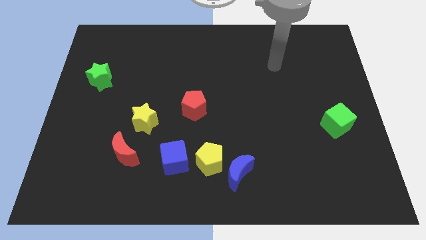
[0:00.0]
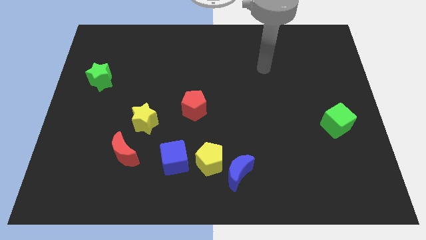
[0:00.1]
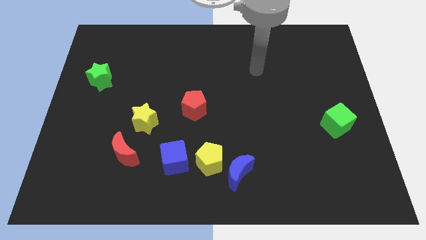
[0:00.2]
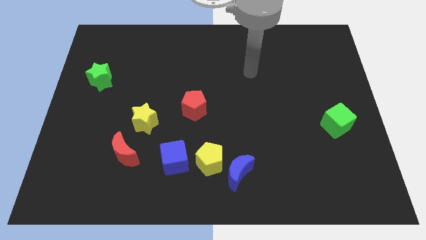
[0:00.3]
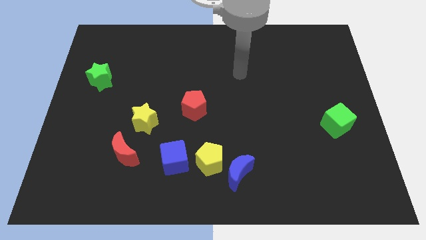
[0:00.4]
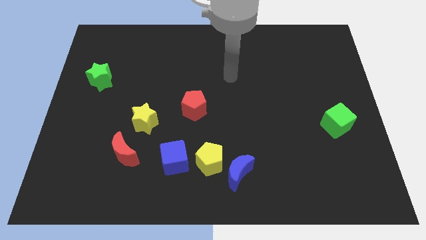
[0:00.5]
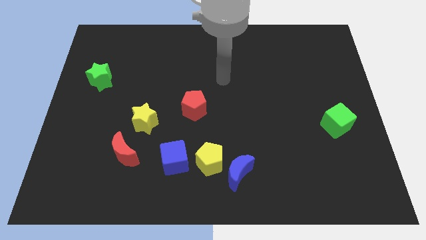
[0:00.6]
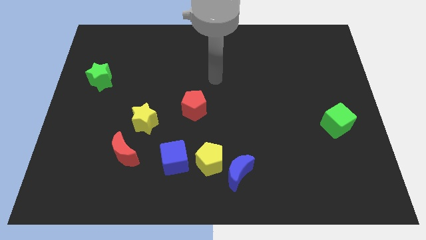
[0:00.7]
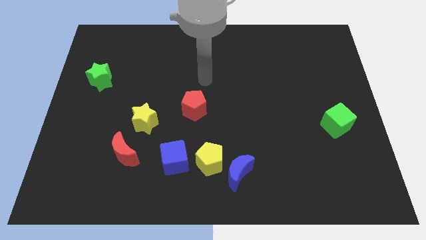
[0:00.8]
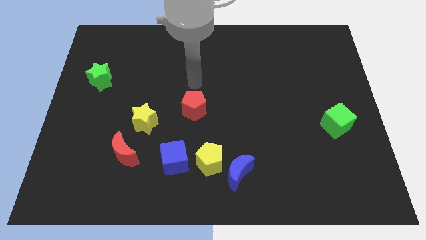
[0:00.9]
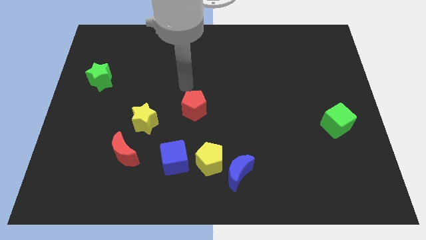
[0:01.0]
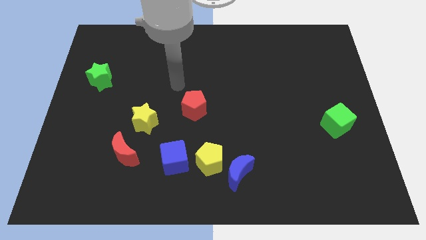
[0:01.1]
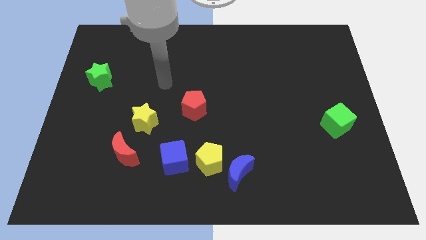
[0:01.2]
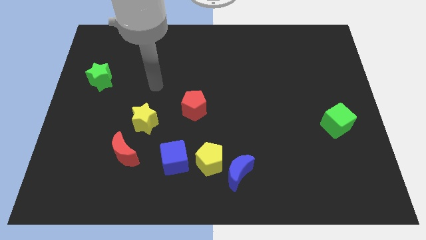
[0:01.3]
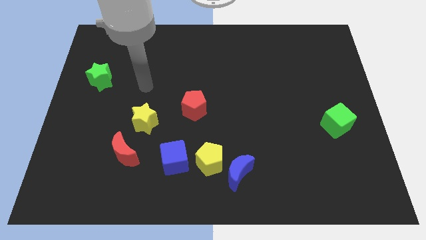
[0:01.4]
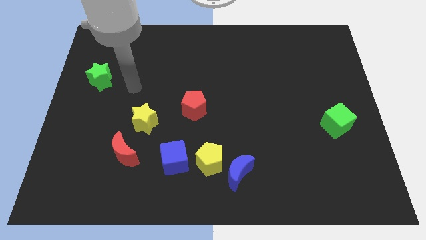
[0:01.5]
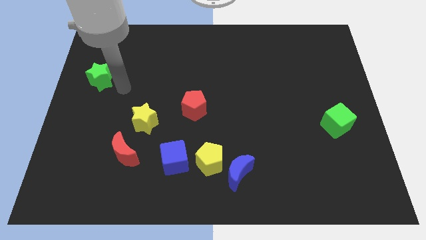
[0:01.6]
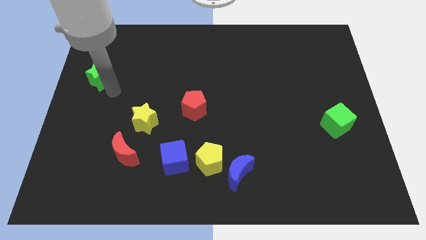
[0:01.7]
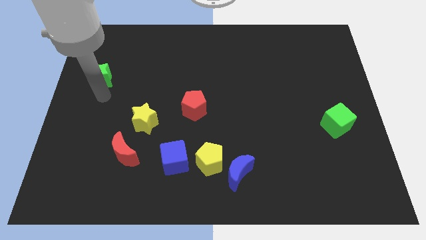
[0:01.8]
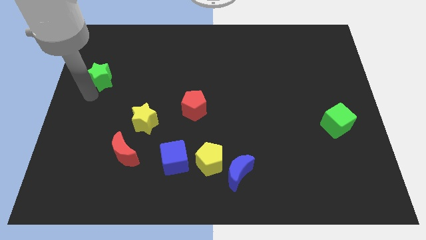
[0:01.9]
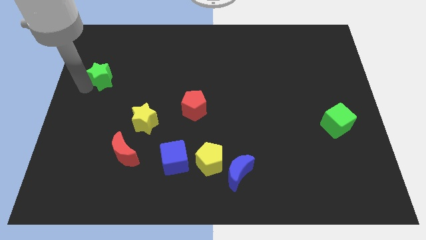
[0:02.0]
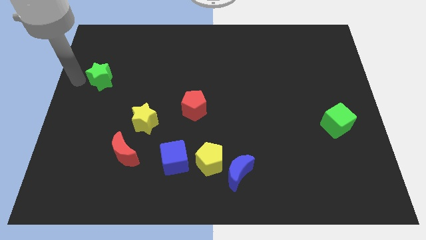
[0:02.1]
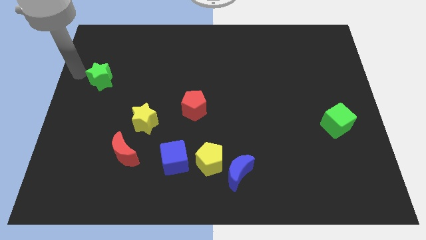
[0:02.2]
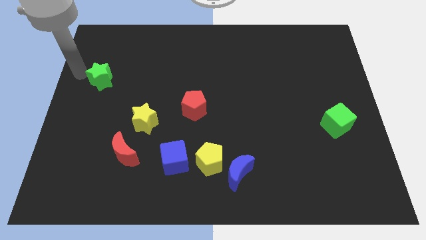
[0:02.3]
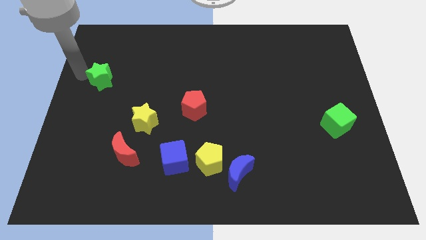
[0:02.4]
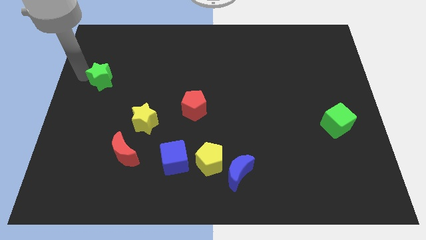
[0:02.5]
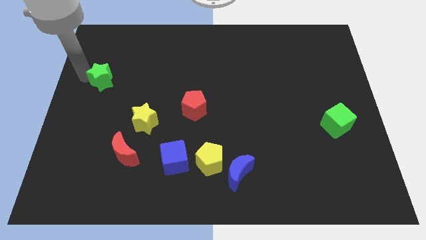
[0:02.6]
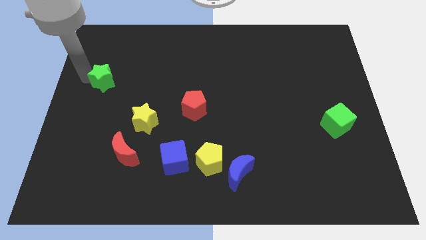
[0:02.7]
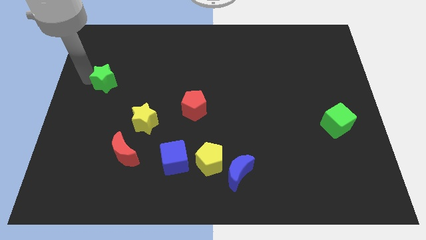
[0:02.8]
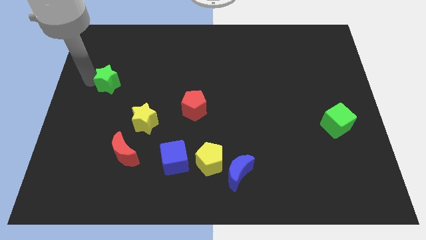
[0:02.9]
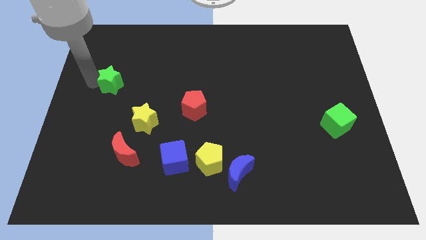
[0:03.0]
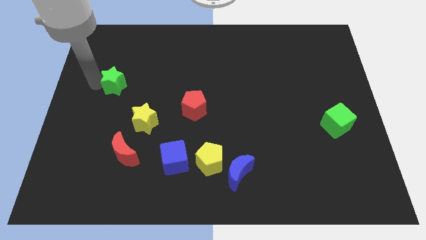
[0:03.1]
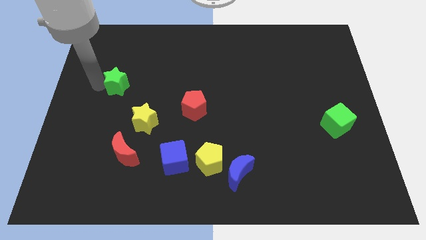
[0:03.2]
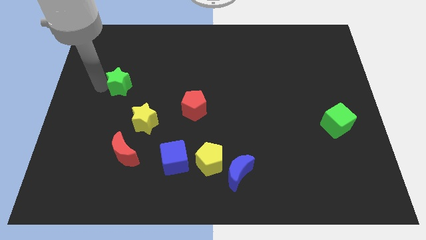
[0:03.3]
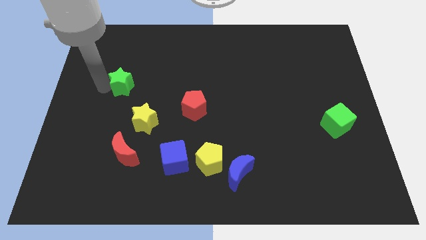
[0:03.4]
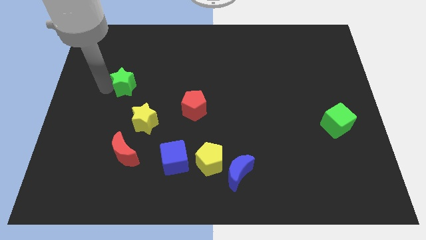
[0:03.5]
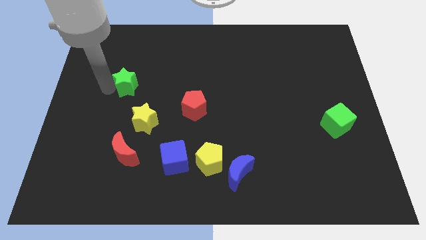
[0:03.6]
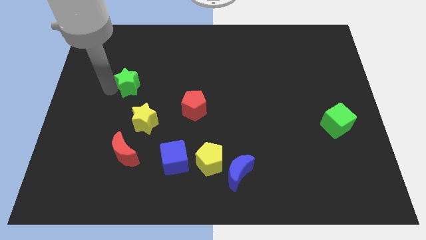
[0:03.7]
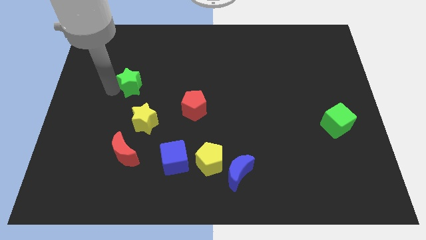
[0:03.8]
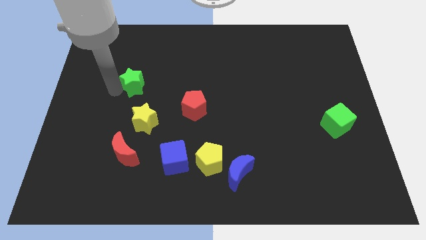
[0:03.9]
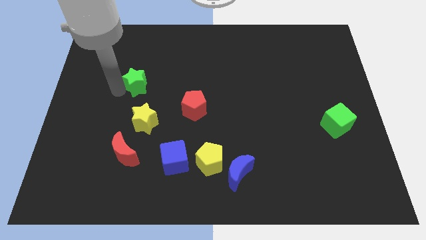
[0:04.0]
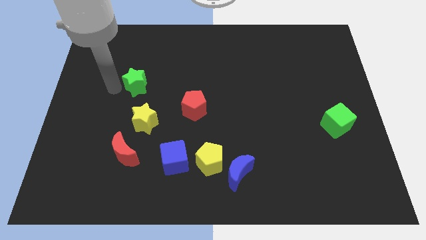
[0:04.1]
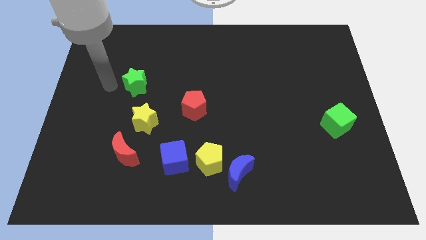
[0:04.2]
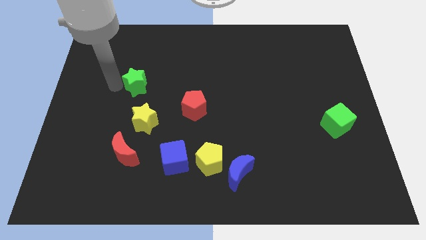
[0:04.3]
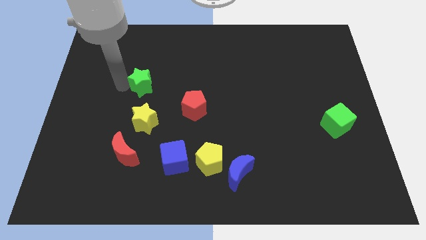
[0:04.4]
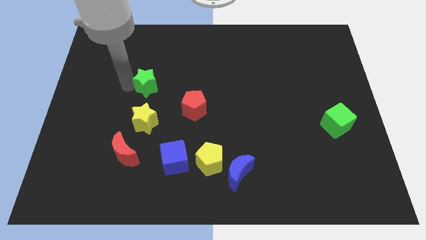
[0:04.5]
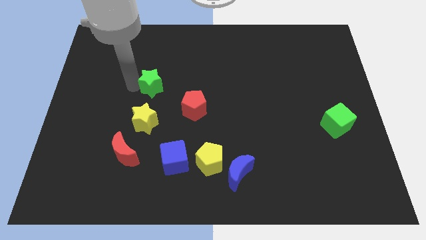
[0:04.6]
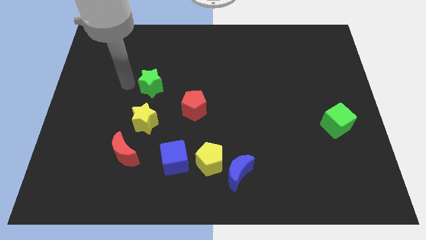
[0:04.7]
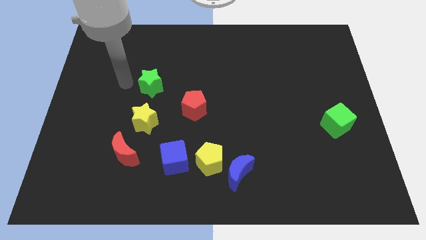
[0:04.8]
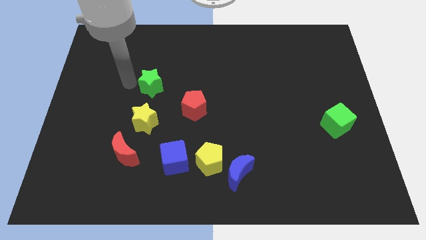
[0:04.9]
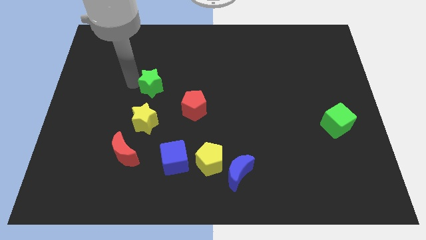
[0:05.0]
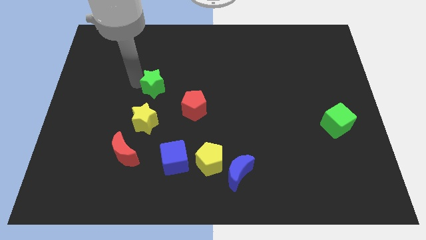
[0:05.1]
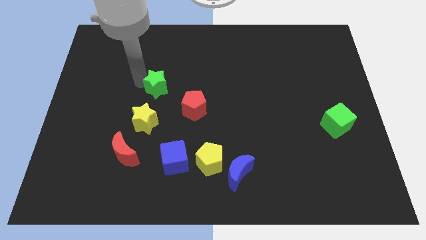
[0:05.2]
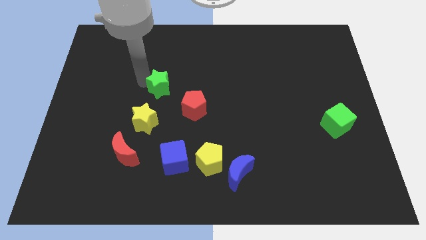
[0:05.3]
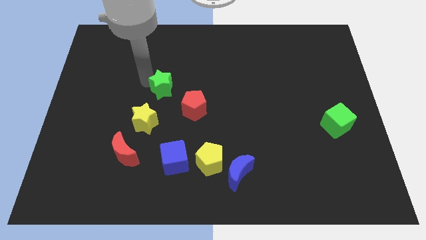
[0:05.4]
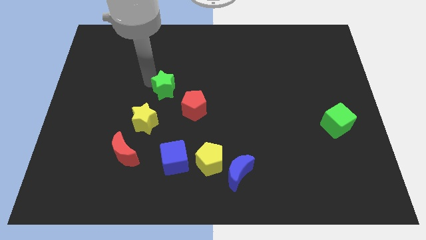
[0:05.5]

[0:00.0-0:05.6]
slide the green star to the center of the board

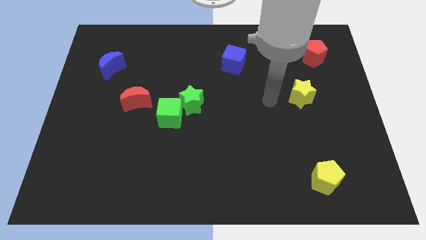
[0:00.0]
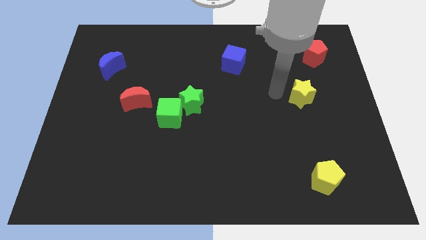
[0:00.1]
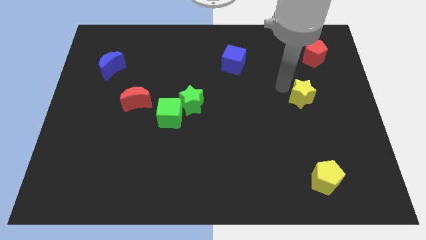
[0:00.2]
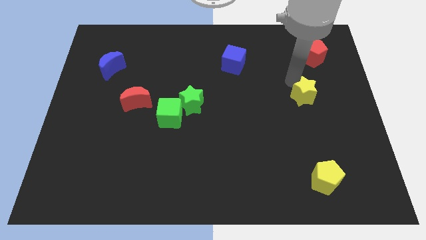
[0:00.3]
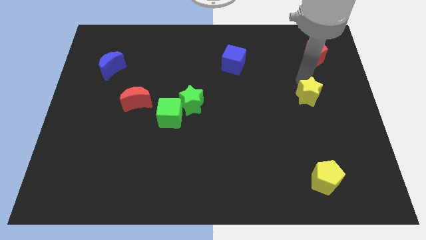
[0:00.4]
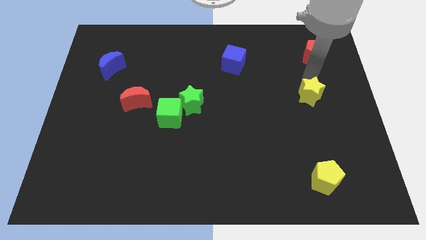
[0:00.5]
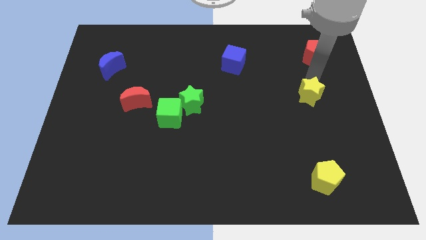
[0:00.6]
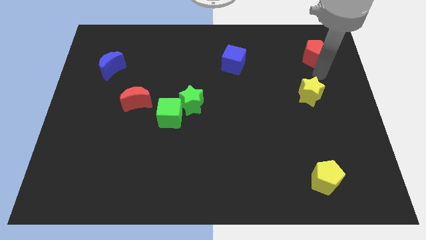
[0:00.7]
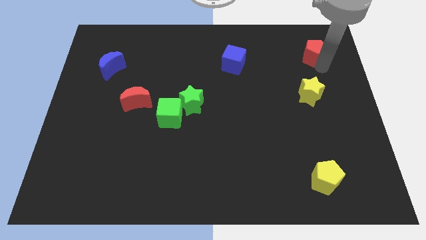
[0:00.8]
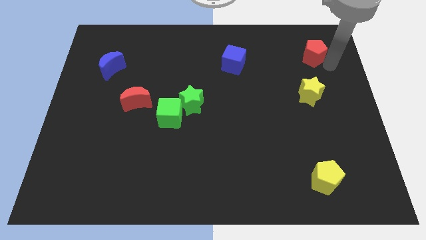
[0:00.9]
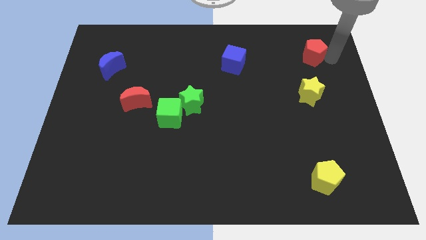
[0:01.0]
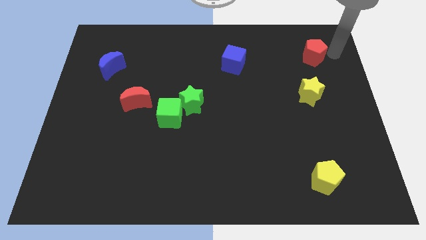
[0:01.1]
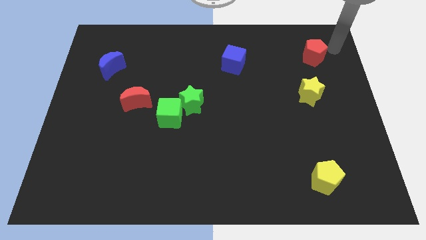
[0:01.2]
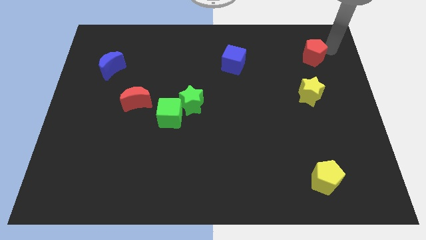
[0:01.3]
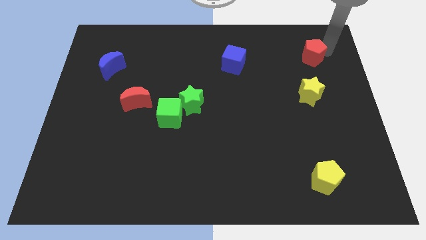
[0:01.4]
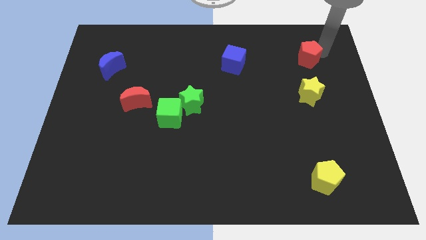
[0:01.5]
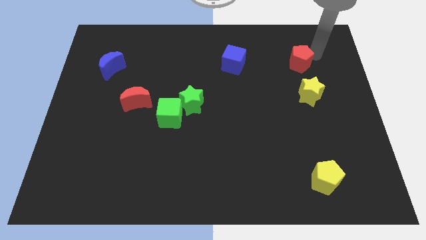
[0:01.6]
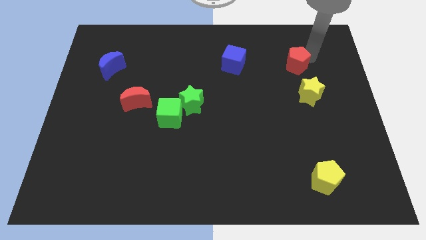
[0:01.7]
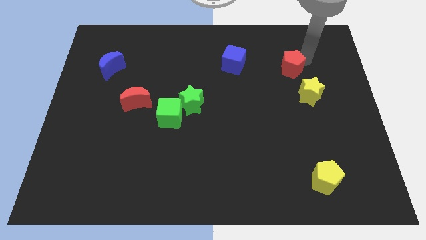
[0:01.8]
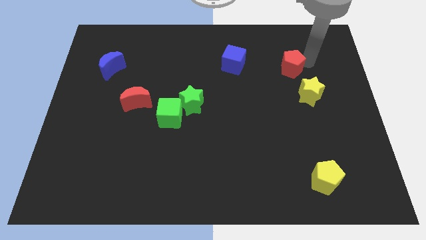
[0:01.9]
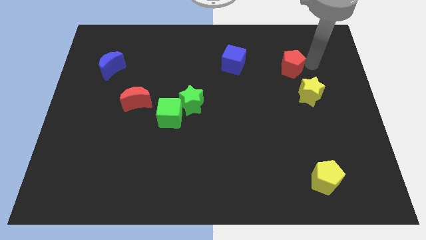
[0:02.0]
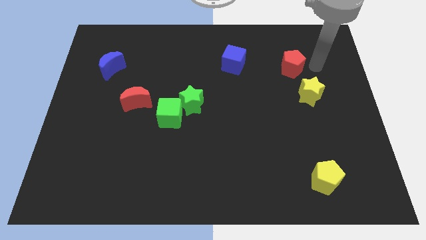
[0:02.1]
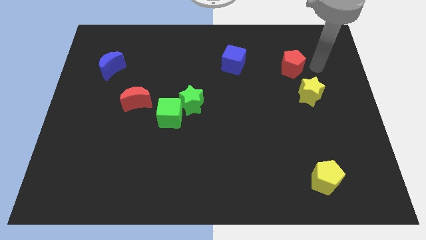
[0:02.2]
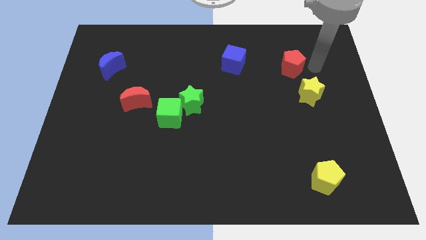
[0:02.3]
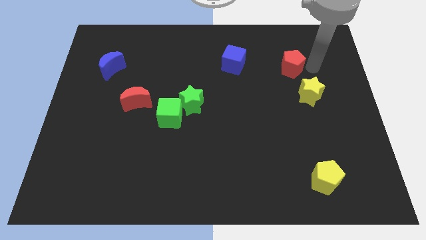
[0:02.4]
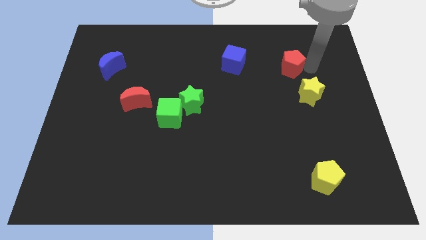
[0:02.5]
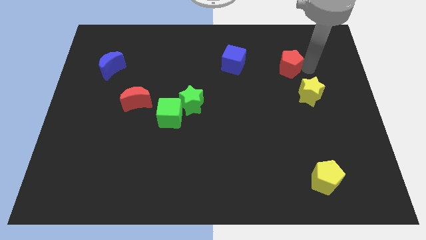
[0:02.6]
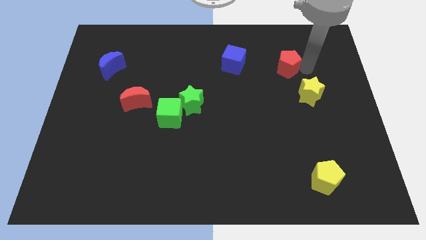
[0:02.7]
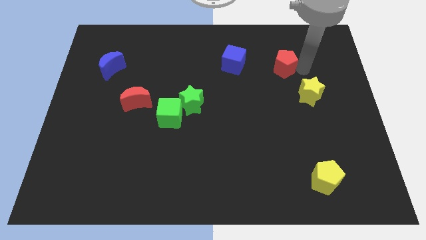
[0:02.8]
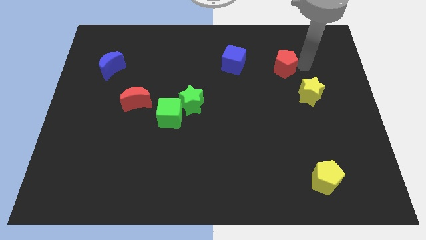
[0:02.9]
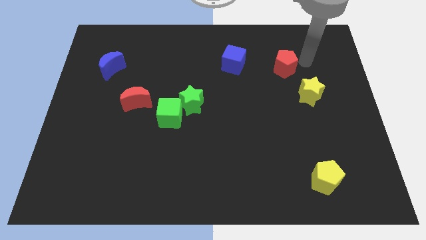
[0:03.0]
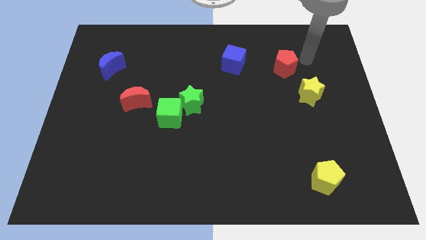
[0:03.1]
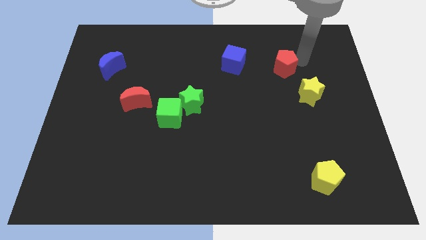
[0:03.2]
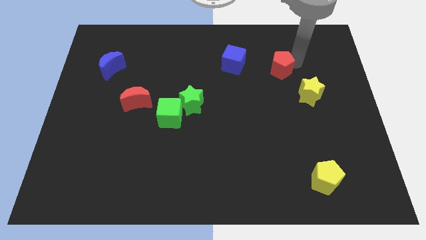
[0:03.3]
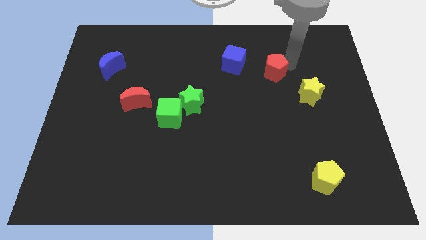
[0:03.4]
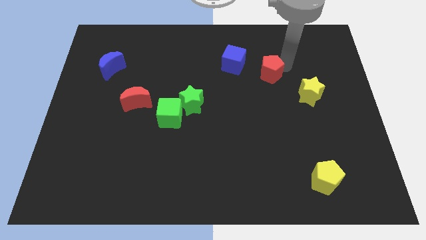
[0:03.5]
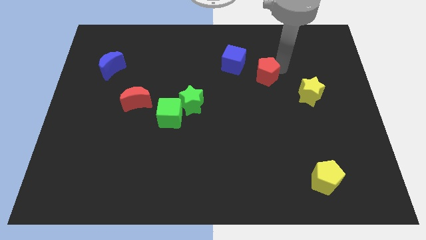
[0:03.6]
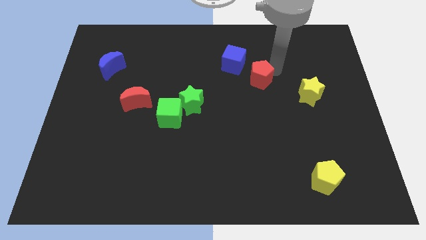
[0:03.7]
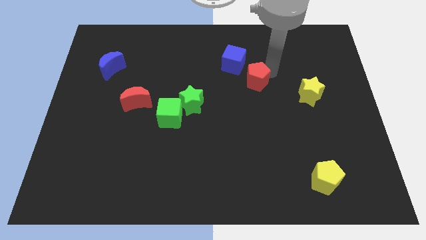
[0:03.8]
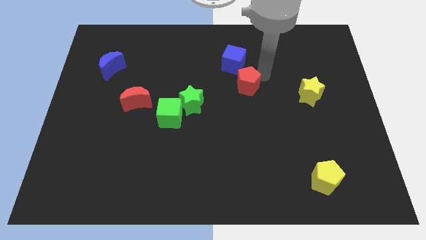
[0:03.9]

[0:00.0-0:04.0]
move the red pentagon to the center
